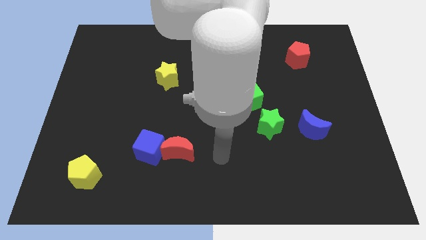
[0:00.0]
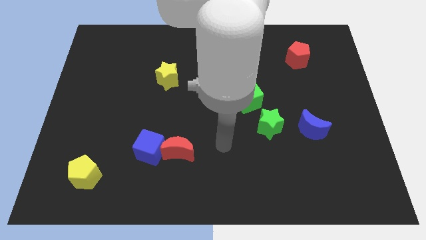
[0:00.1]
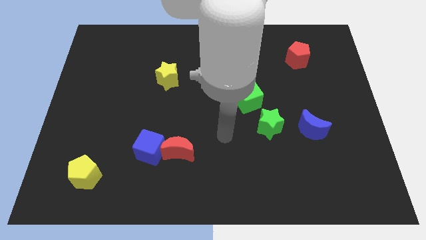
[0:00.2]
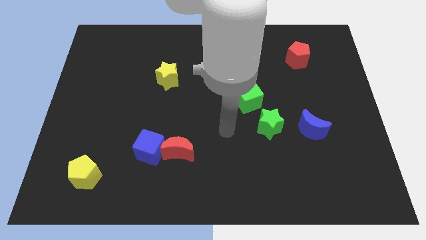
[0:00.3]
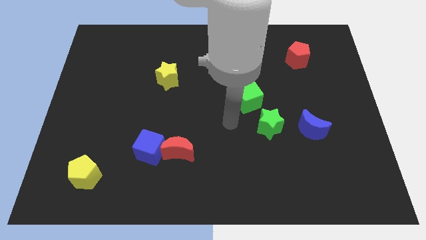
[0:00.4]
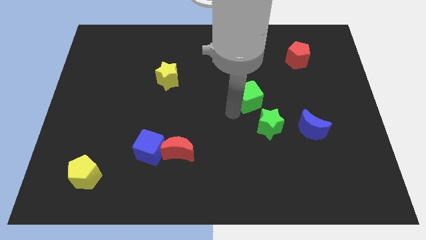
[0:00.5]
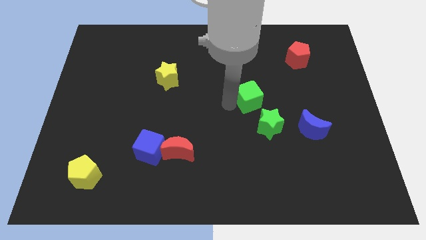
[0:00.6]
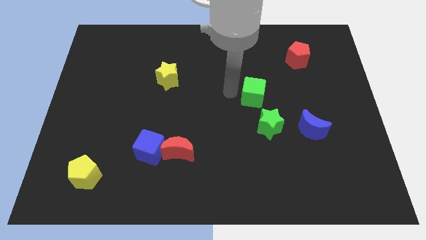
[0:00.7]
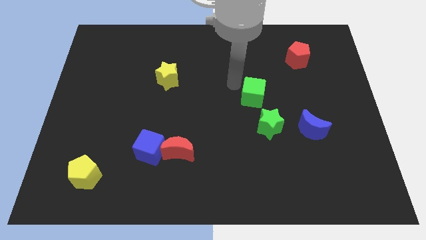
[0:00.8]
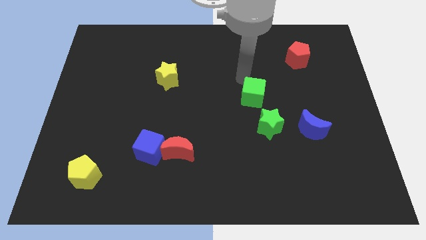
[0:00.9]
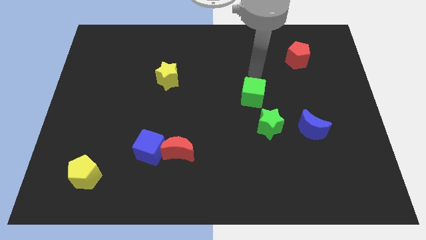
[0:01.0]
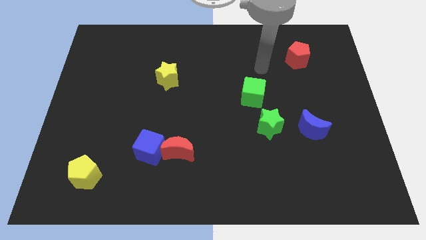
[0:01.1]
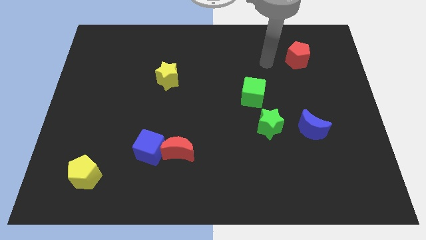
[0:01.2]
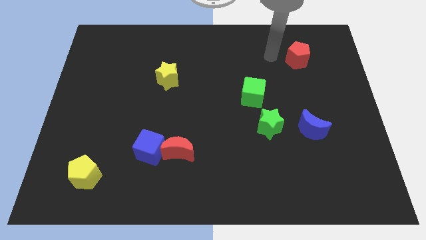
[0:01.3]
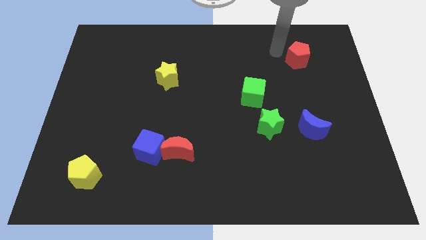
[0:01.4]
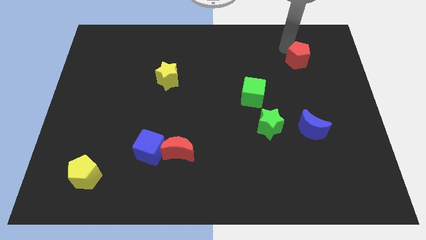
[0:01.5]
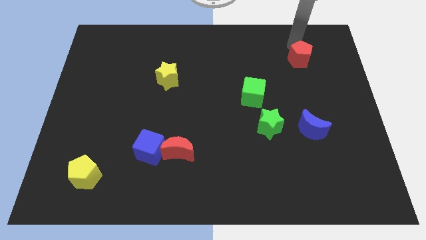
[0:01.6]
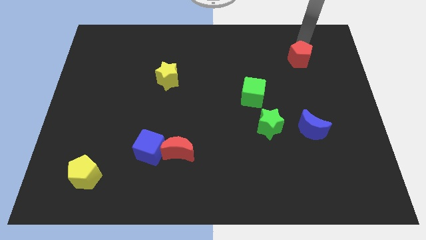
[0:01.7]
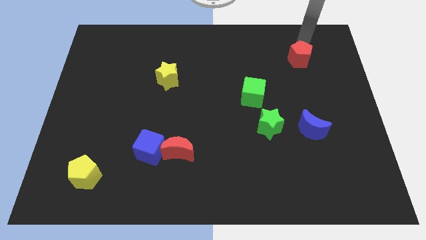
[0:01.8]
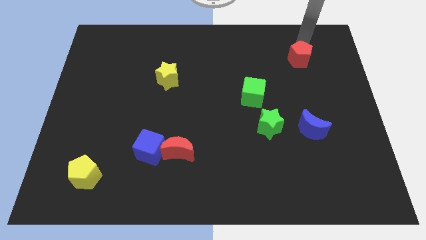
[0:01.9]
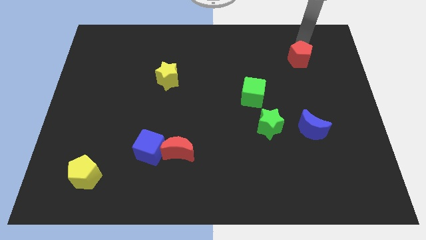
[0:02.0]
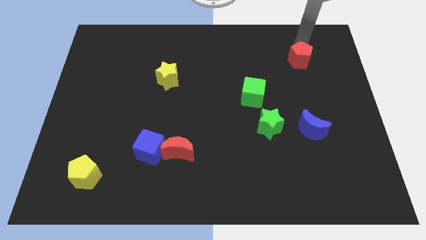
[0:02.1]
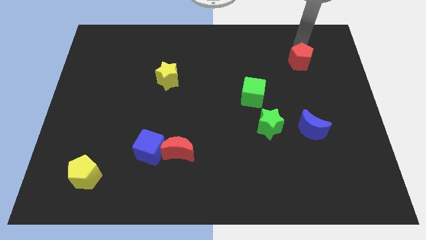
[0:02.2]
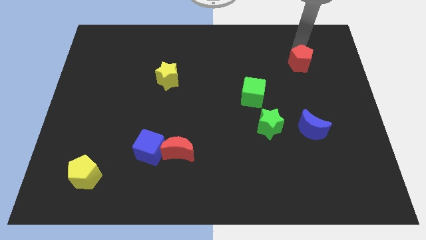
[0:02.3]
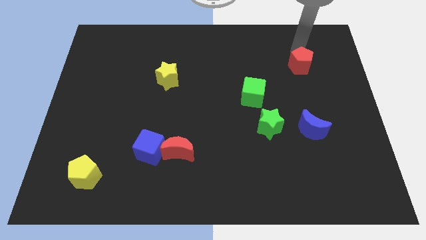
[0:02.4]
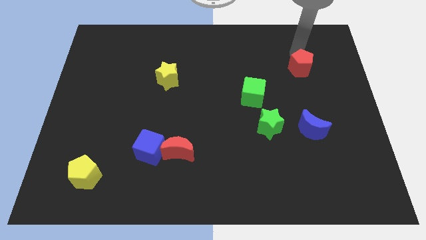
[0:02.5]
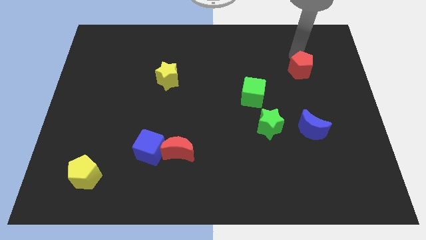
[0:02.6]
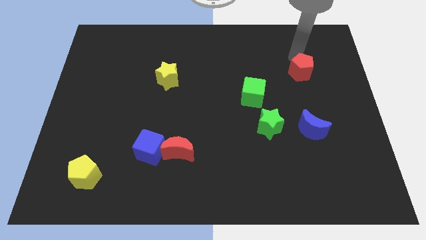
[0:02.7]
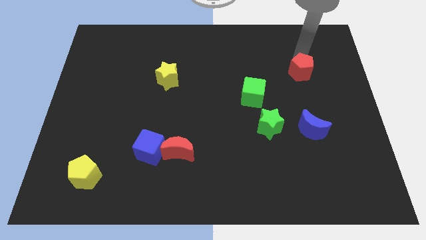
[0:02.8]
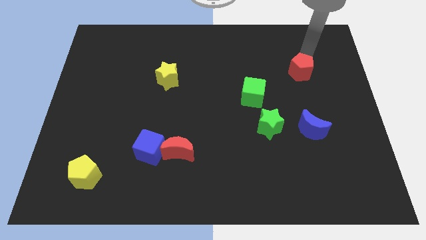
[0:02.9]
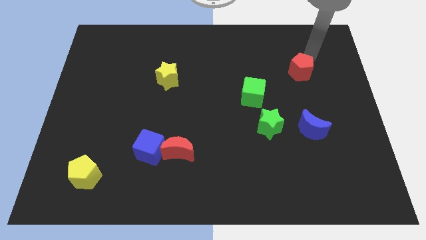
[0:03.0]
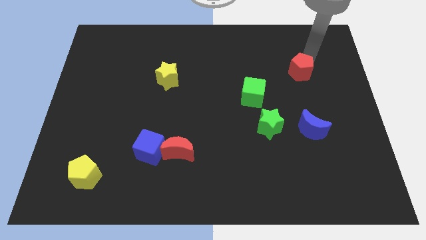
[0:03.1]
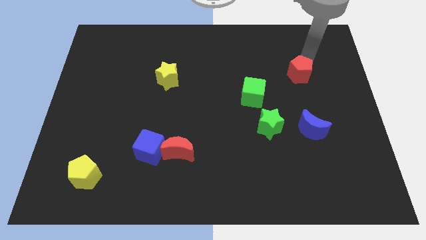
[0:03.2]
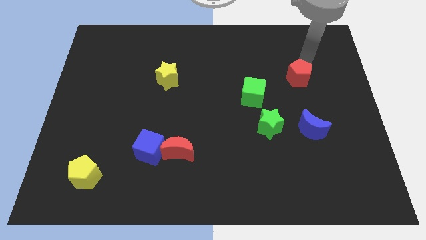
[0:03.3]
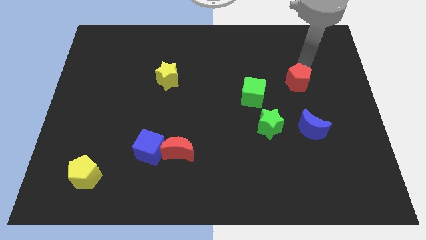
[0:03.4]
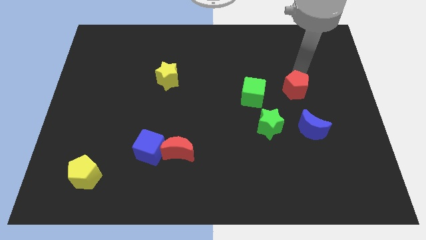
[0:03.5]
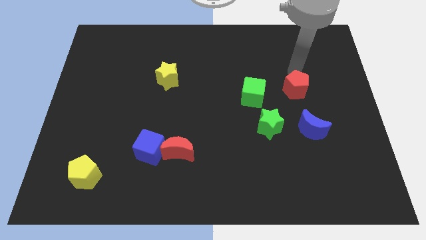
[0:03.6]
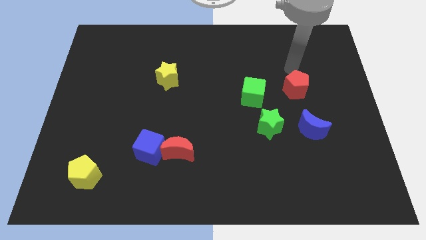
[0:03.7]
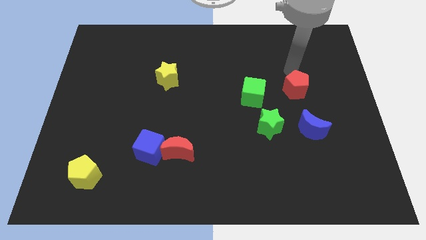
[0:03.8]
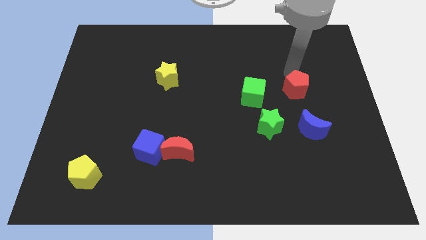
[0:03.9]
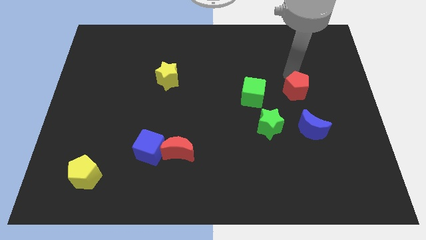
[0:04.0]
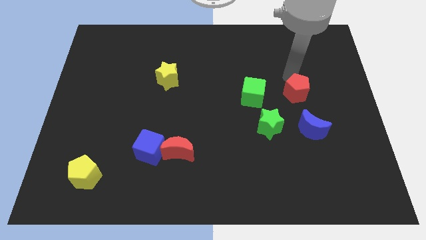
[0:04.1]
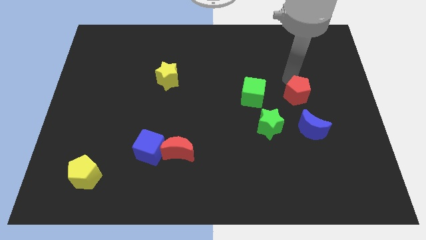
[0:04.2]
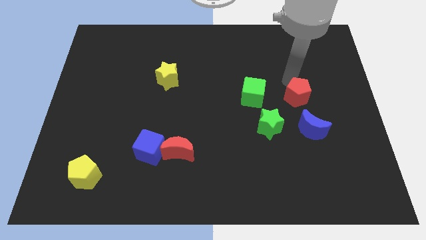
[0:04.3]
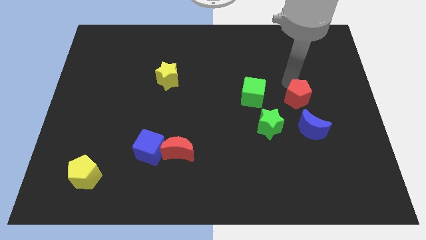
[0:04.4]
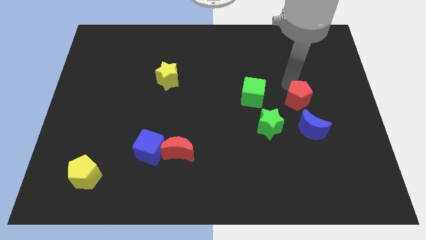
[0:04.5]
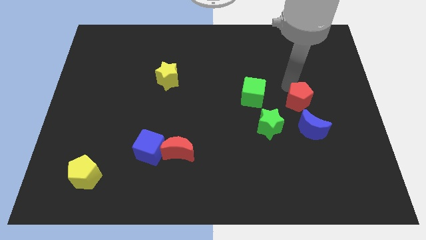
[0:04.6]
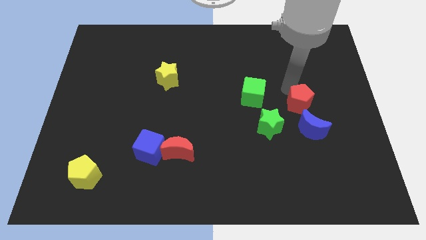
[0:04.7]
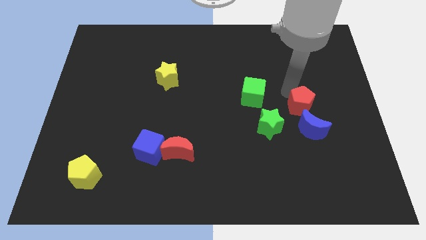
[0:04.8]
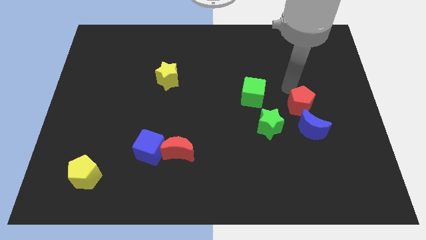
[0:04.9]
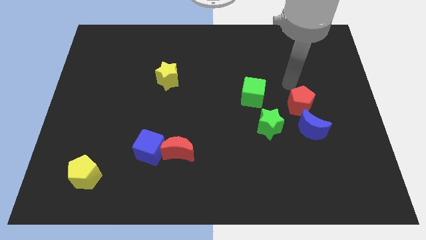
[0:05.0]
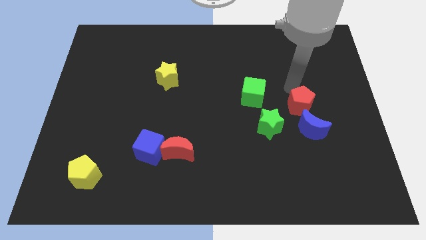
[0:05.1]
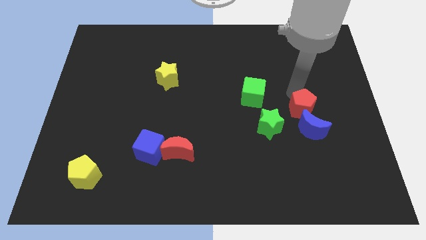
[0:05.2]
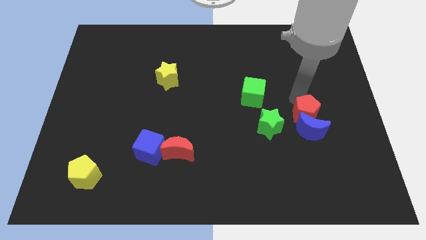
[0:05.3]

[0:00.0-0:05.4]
put the red pentagon next to the blue moon

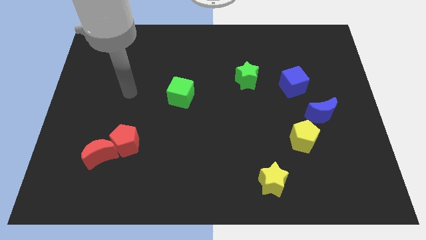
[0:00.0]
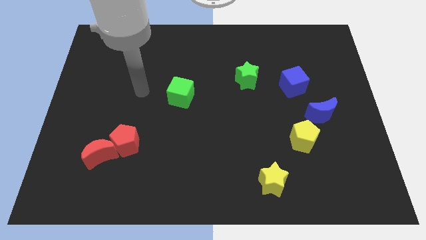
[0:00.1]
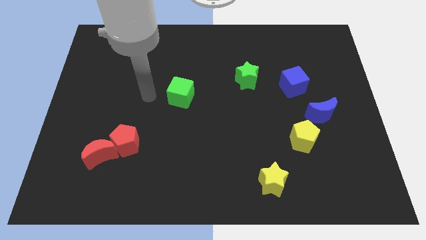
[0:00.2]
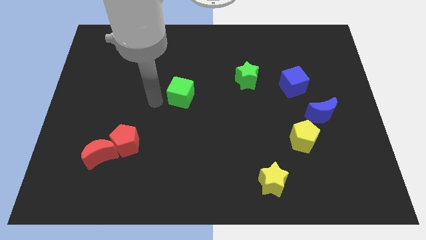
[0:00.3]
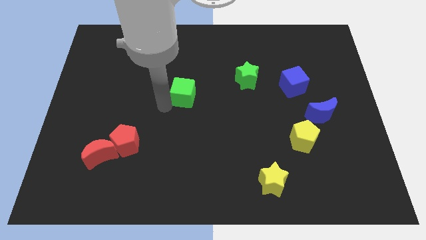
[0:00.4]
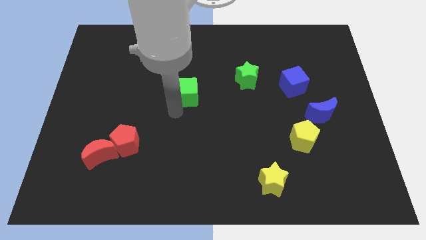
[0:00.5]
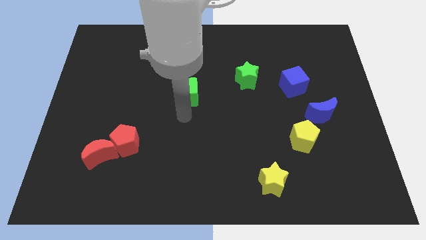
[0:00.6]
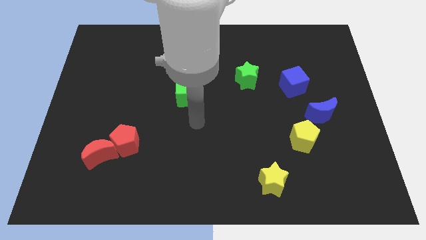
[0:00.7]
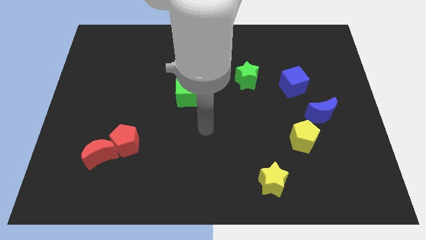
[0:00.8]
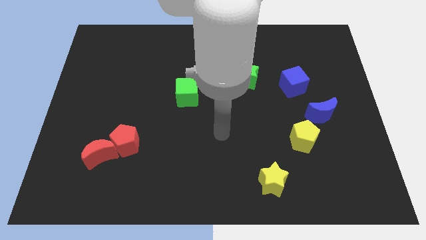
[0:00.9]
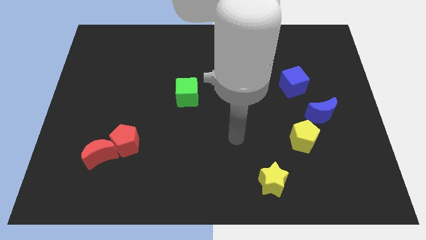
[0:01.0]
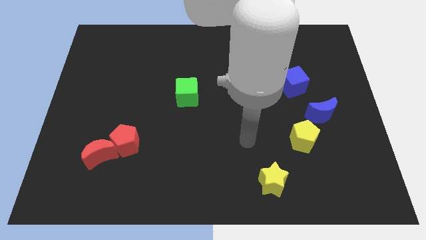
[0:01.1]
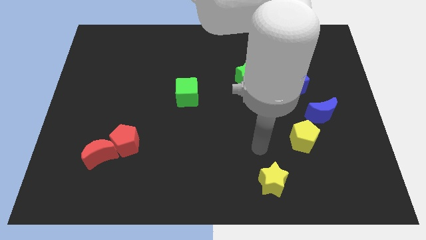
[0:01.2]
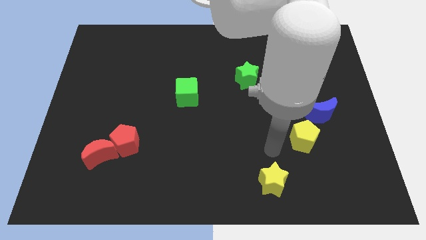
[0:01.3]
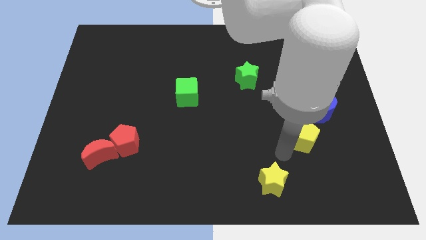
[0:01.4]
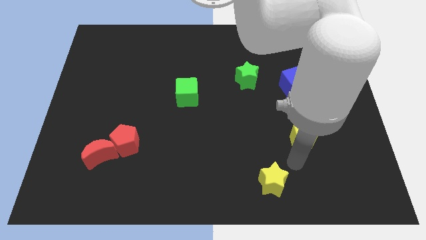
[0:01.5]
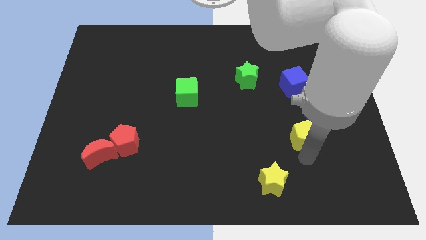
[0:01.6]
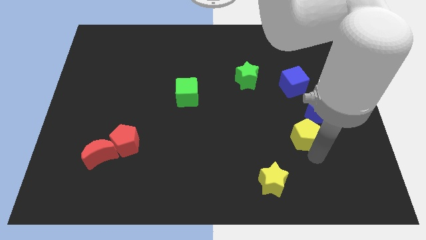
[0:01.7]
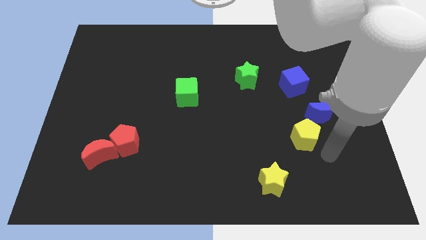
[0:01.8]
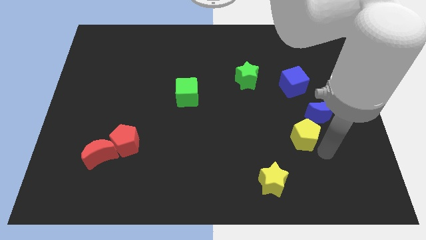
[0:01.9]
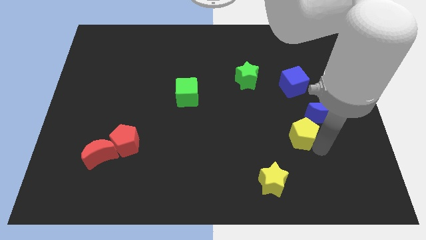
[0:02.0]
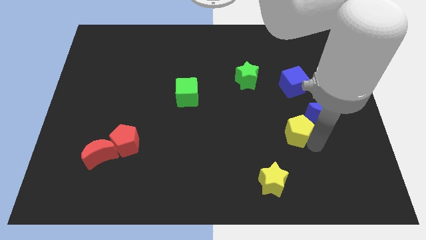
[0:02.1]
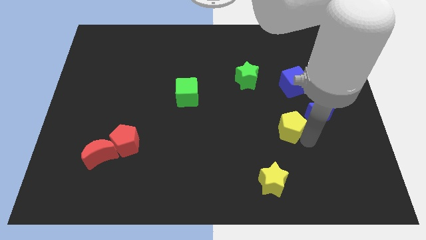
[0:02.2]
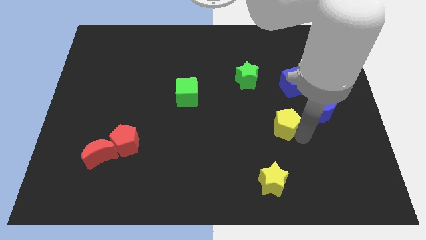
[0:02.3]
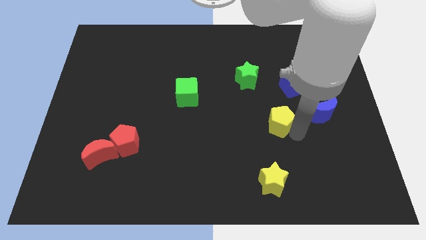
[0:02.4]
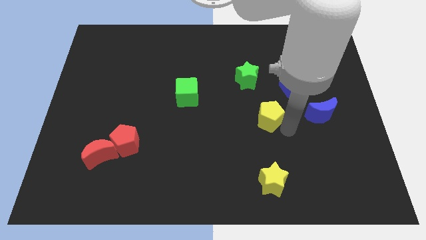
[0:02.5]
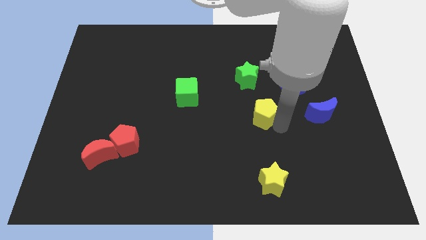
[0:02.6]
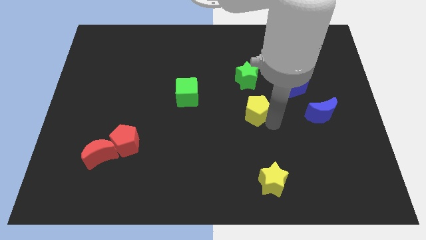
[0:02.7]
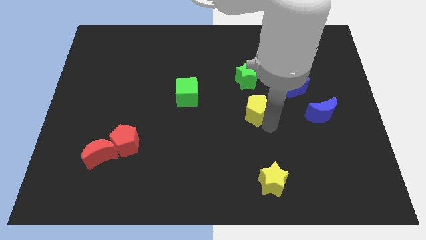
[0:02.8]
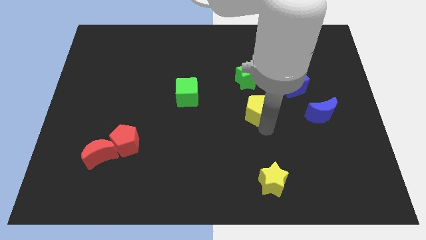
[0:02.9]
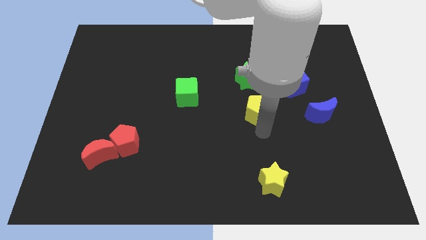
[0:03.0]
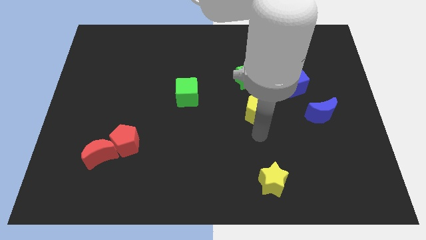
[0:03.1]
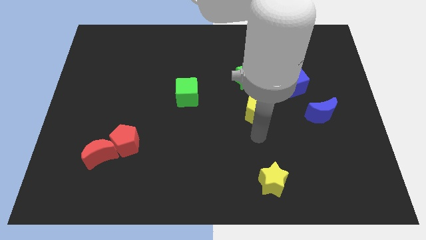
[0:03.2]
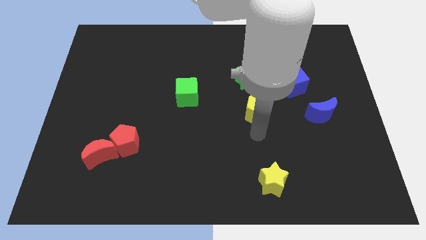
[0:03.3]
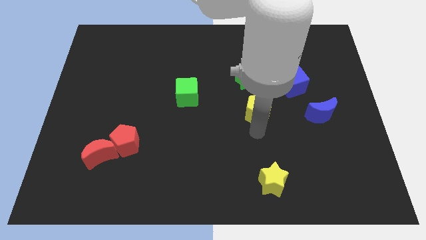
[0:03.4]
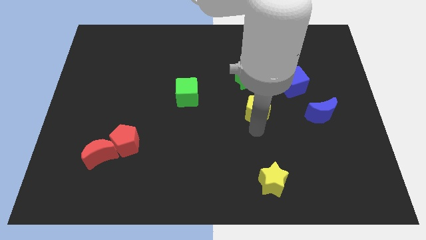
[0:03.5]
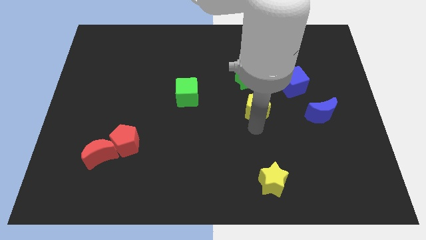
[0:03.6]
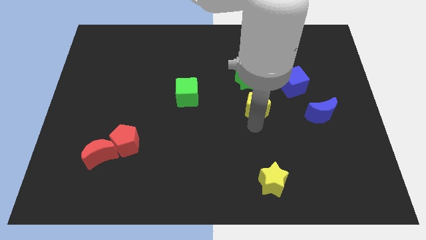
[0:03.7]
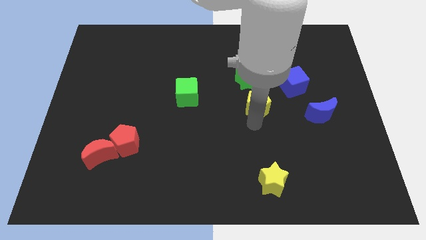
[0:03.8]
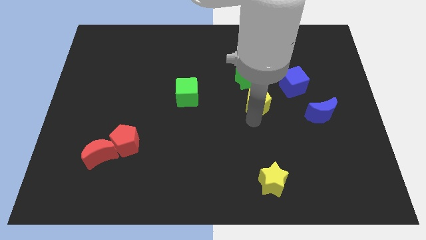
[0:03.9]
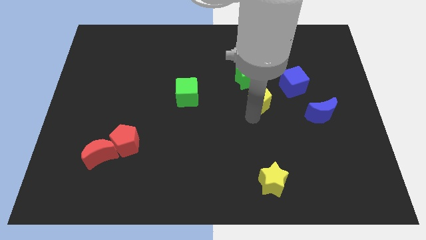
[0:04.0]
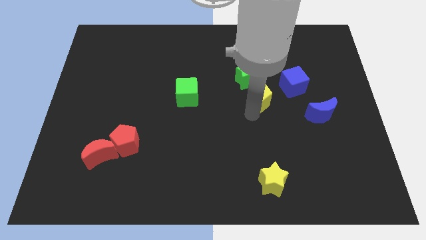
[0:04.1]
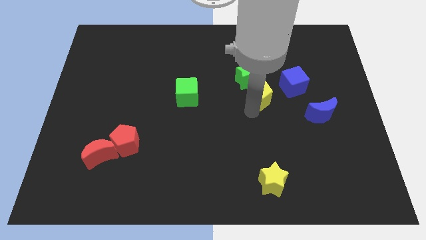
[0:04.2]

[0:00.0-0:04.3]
slide the yellow pentagon next to the green star
